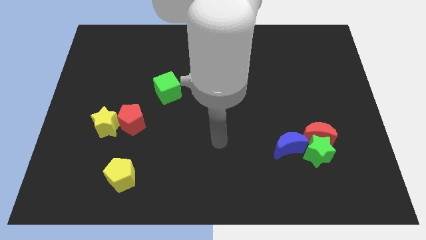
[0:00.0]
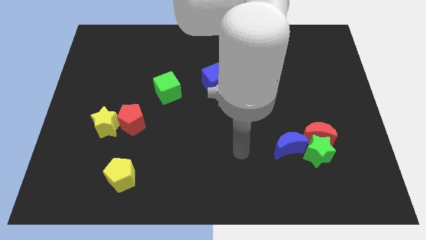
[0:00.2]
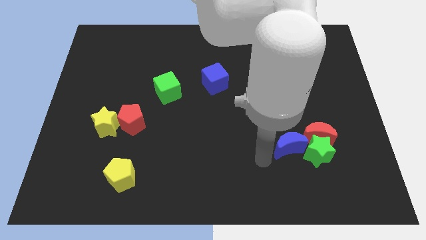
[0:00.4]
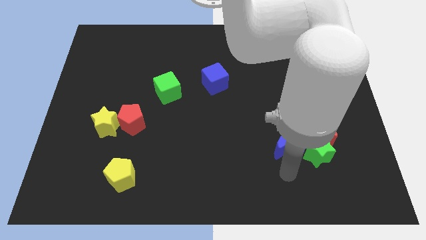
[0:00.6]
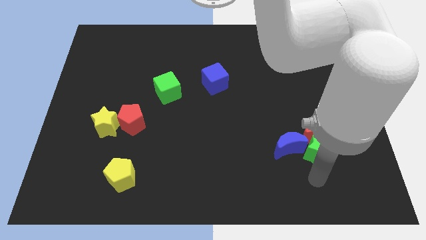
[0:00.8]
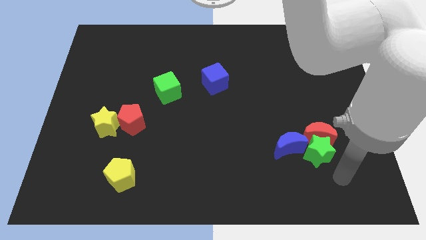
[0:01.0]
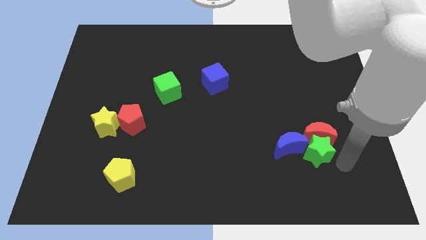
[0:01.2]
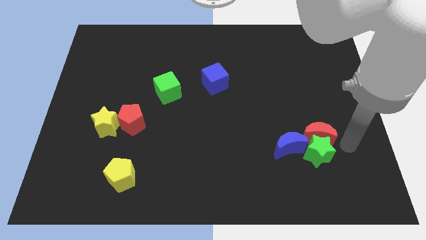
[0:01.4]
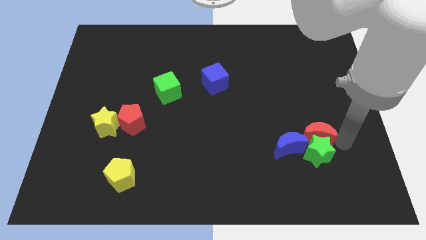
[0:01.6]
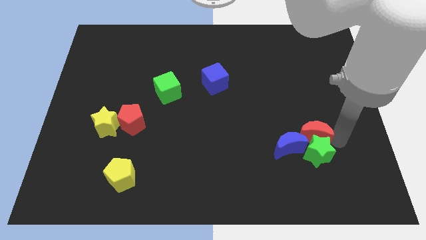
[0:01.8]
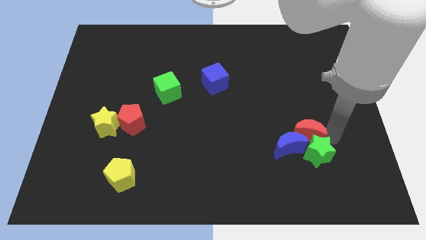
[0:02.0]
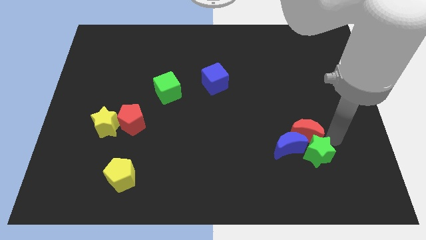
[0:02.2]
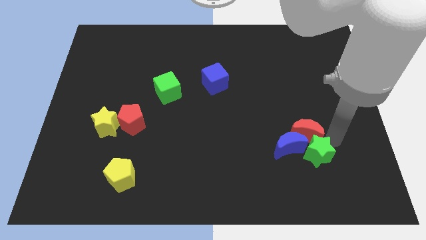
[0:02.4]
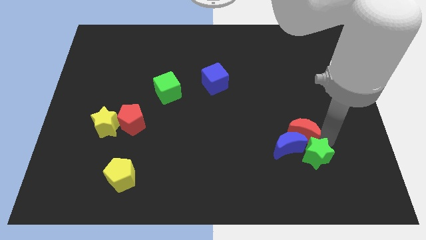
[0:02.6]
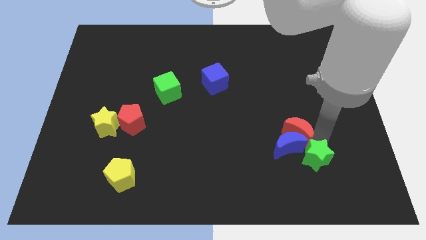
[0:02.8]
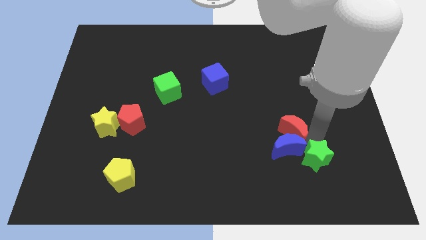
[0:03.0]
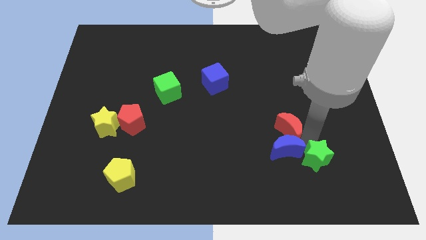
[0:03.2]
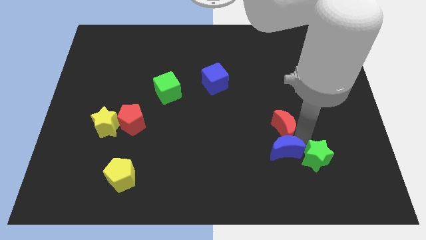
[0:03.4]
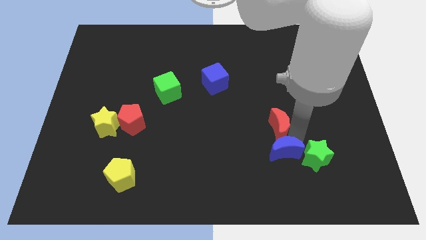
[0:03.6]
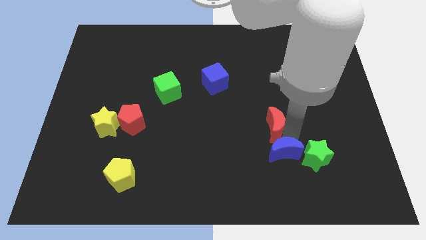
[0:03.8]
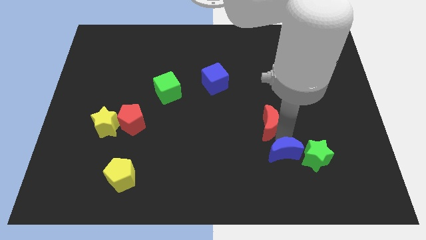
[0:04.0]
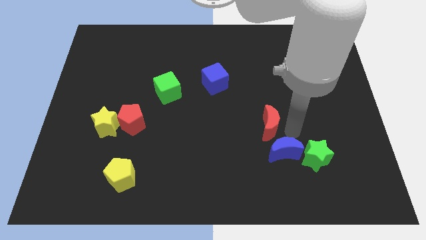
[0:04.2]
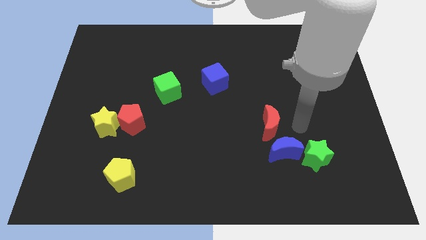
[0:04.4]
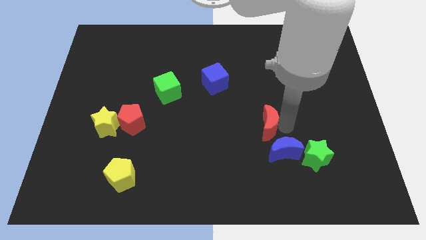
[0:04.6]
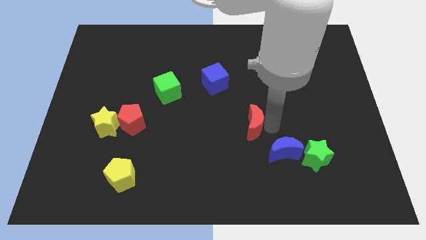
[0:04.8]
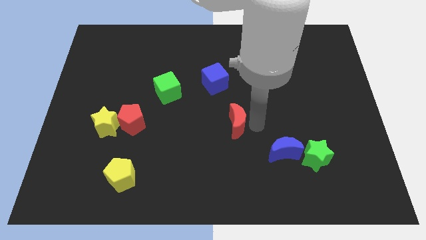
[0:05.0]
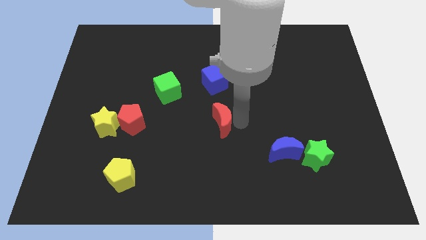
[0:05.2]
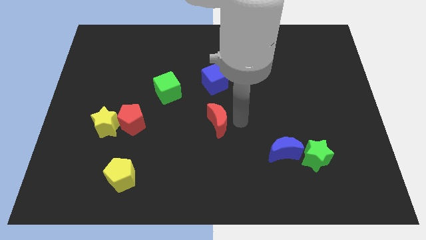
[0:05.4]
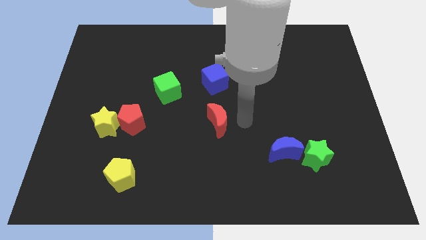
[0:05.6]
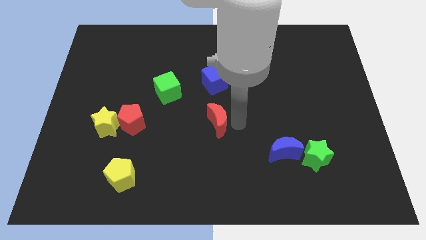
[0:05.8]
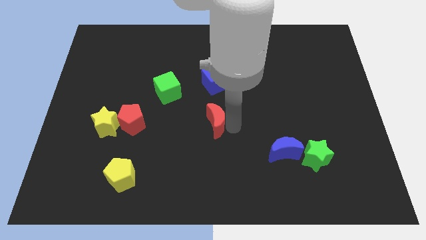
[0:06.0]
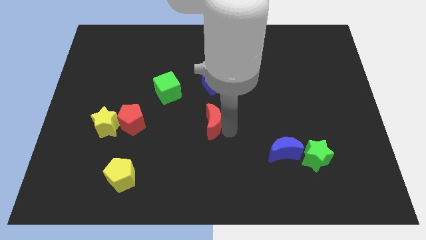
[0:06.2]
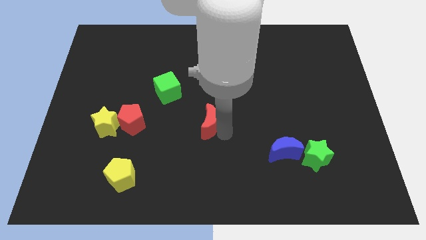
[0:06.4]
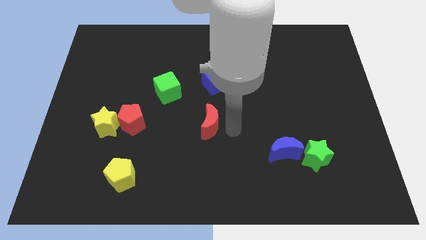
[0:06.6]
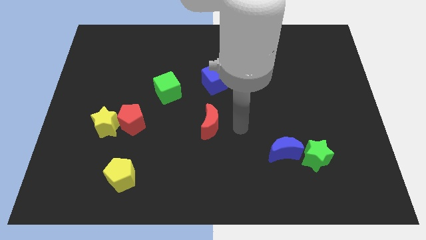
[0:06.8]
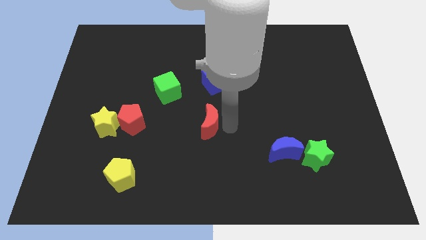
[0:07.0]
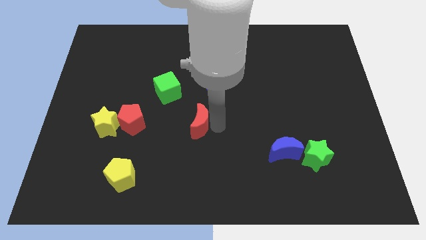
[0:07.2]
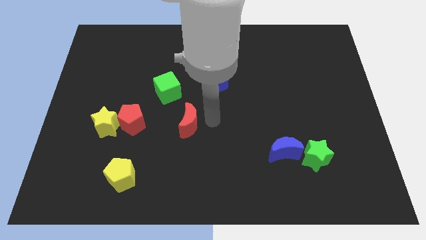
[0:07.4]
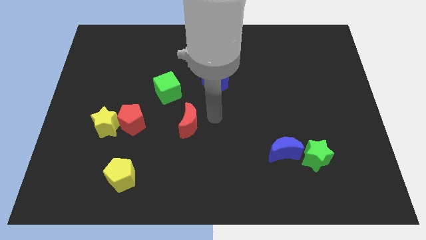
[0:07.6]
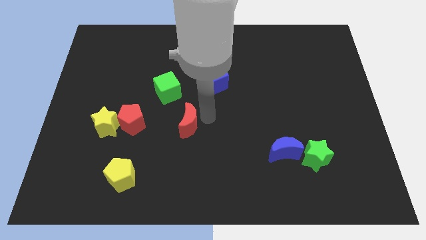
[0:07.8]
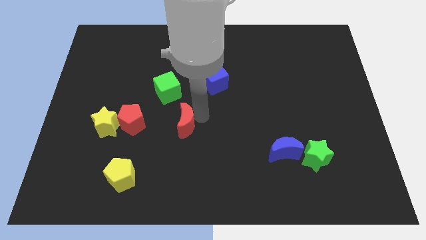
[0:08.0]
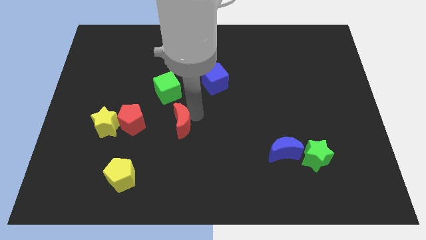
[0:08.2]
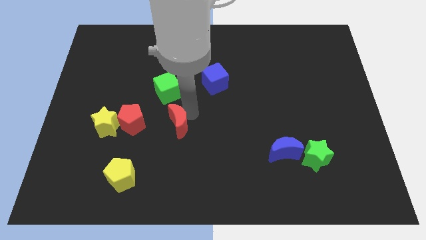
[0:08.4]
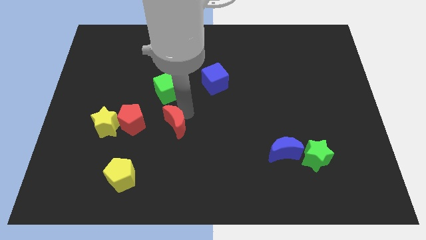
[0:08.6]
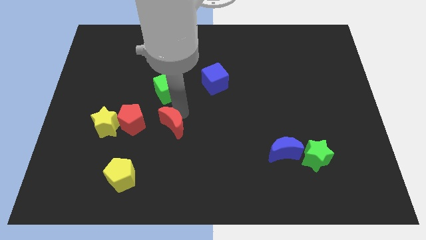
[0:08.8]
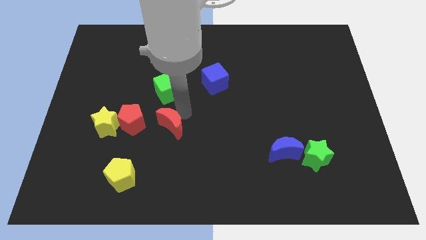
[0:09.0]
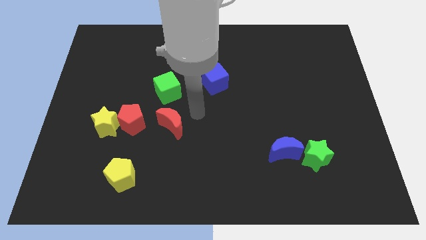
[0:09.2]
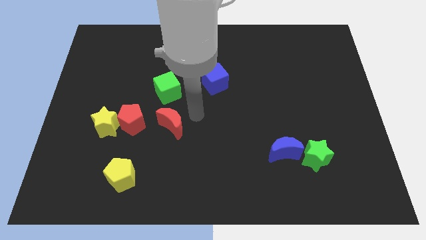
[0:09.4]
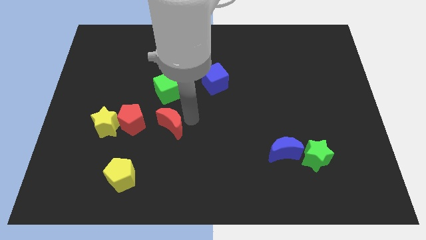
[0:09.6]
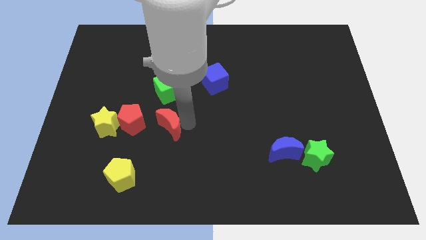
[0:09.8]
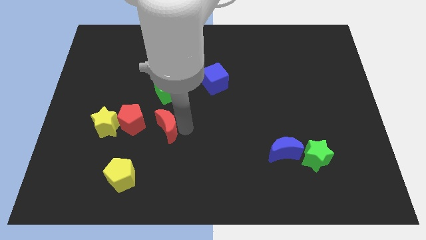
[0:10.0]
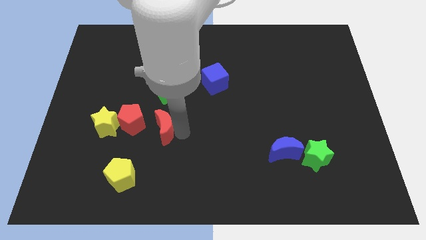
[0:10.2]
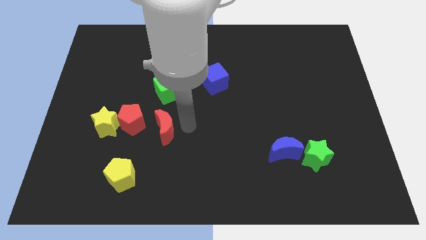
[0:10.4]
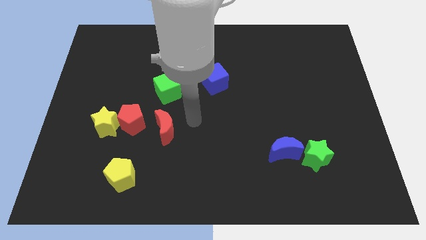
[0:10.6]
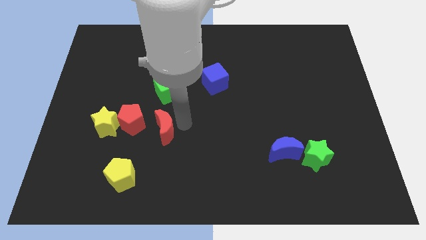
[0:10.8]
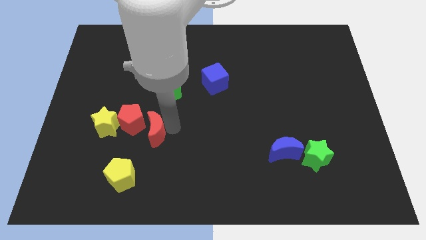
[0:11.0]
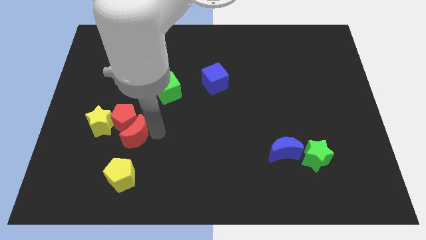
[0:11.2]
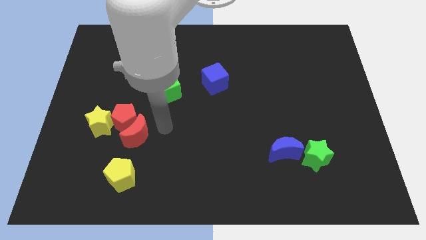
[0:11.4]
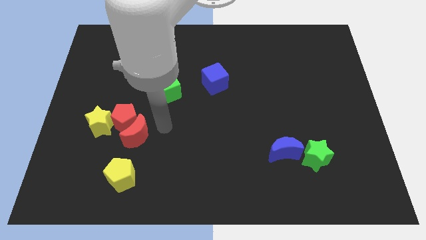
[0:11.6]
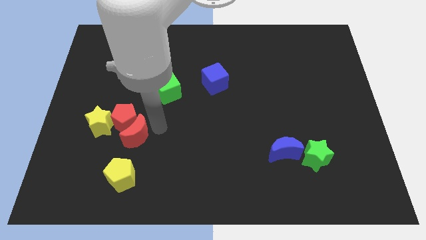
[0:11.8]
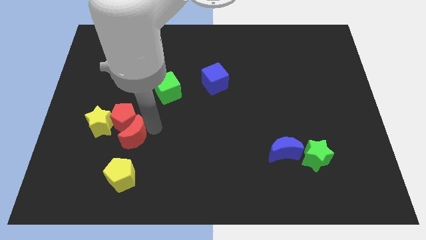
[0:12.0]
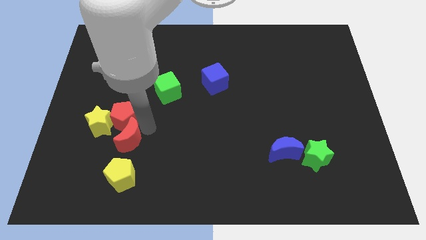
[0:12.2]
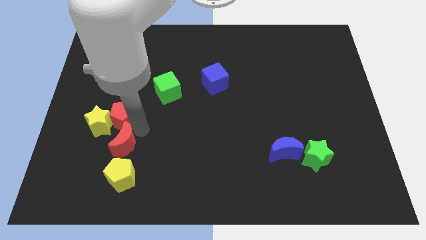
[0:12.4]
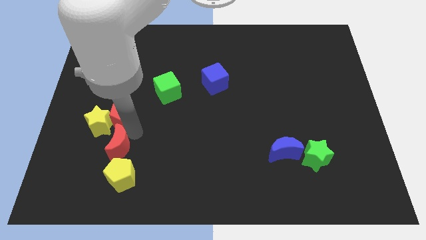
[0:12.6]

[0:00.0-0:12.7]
put the red moon diagonally down and to the left of the red pentagon

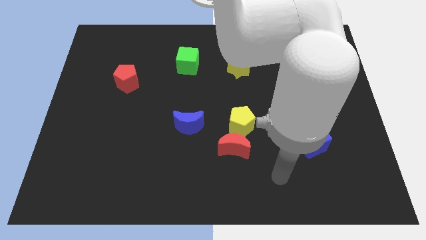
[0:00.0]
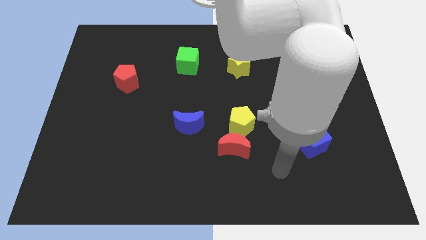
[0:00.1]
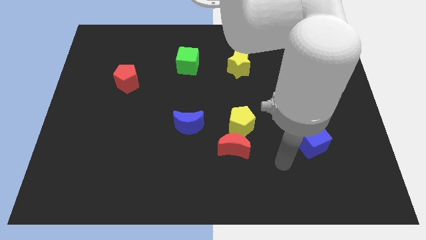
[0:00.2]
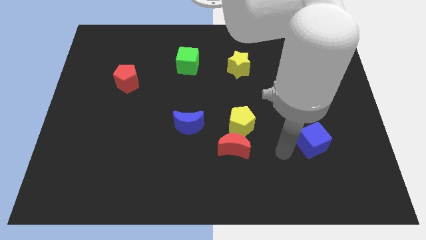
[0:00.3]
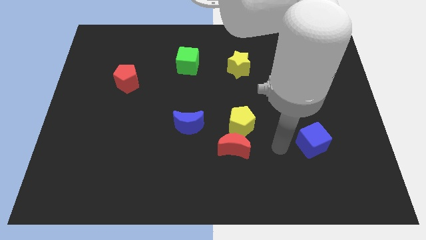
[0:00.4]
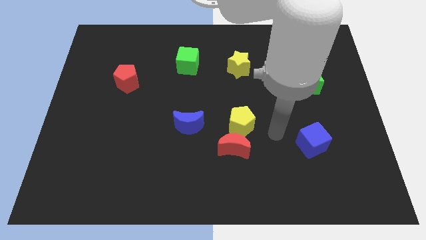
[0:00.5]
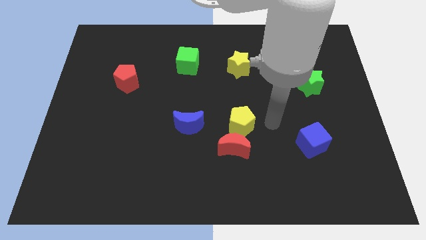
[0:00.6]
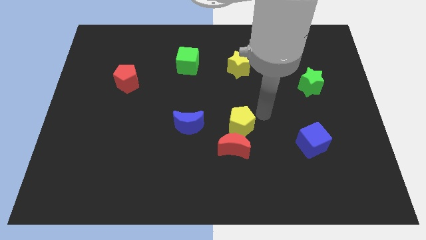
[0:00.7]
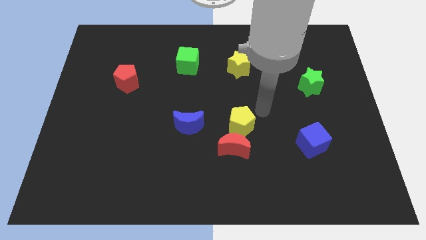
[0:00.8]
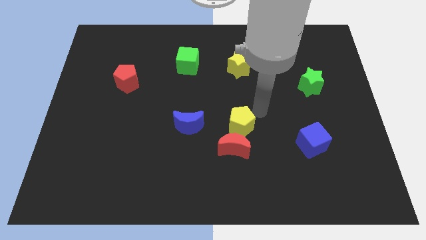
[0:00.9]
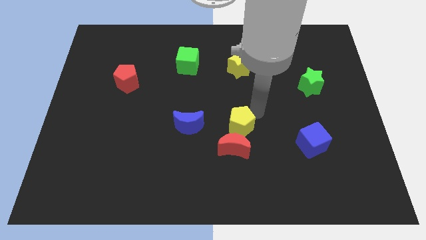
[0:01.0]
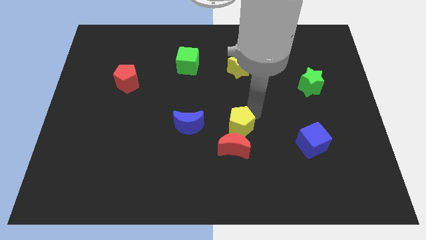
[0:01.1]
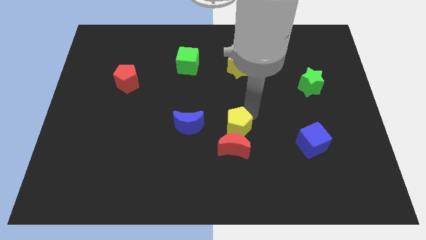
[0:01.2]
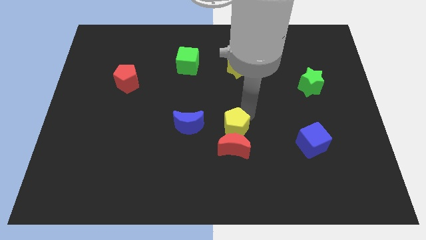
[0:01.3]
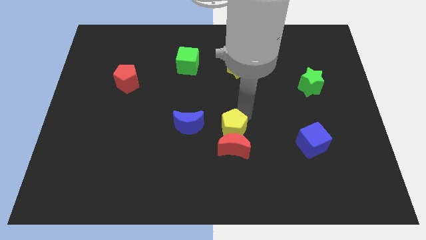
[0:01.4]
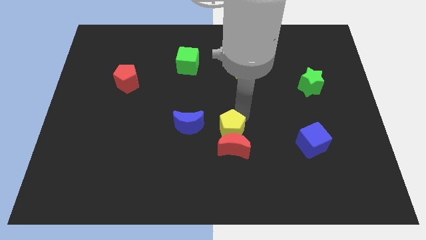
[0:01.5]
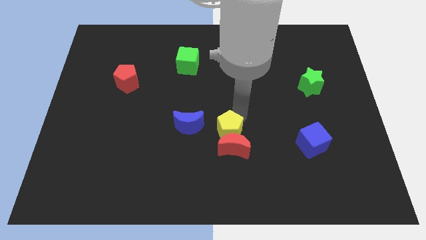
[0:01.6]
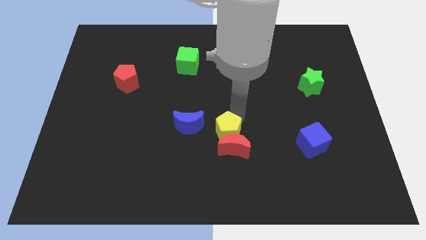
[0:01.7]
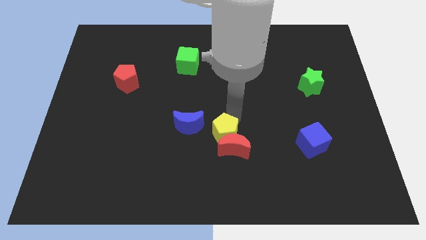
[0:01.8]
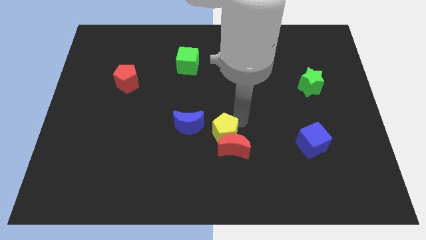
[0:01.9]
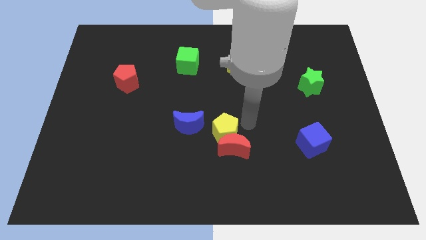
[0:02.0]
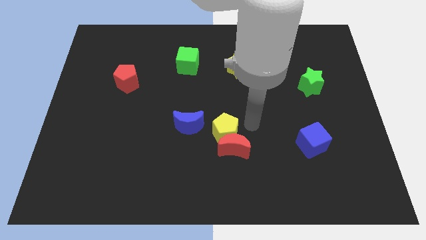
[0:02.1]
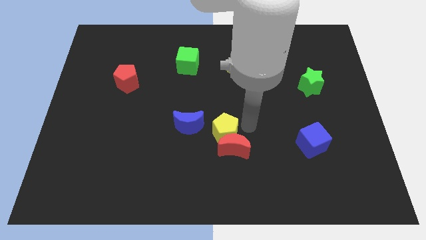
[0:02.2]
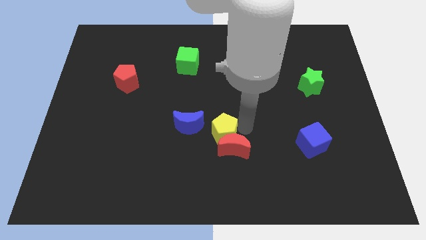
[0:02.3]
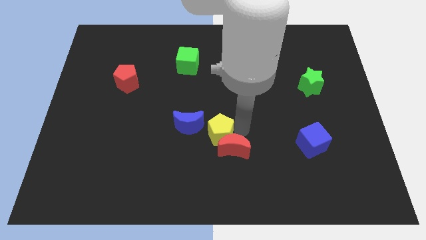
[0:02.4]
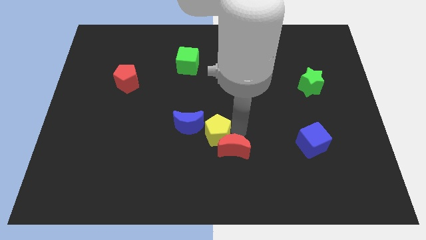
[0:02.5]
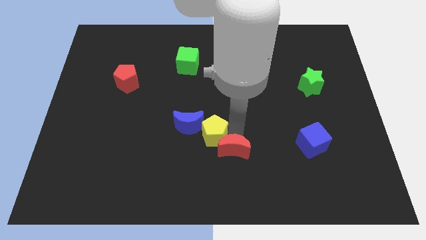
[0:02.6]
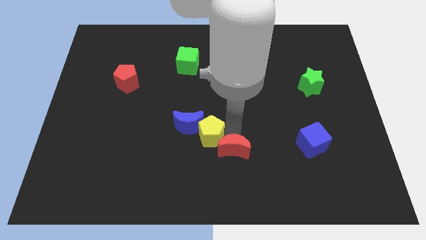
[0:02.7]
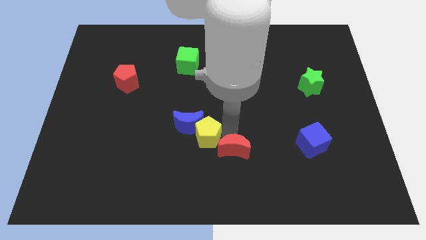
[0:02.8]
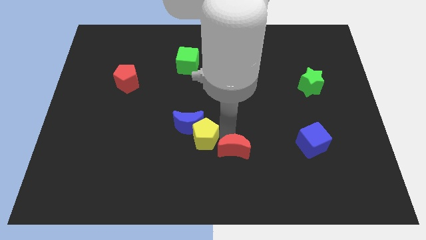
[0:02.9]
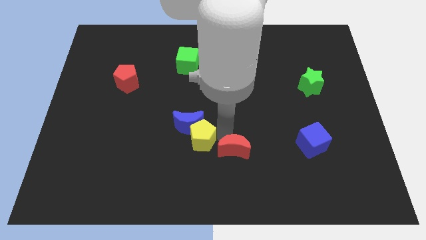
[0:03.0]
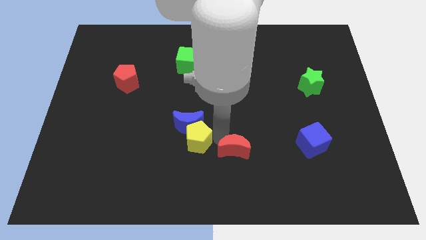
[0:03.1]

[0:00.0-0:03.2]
push the yellow pentagon diagonally down and to the left of the blue moon
